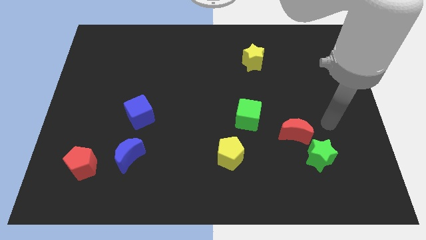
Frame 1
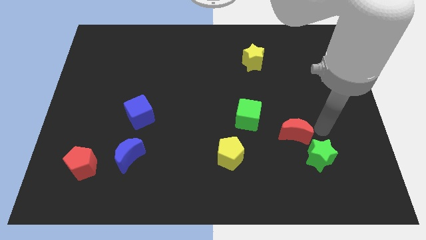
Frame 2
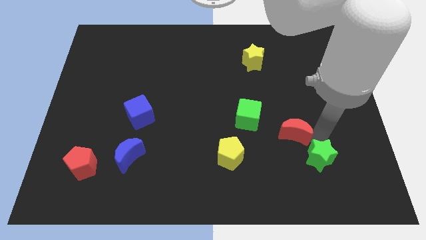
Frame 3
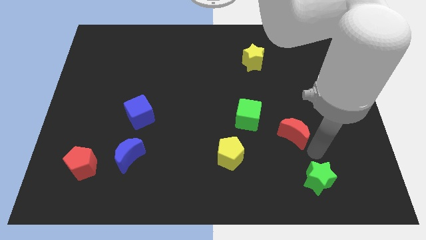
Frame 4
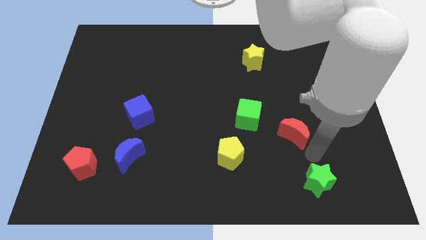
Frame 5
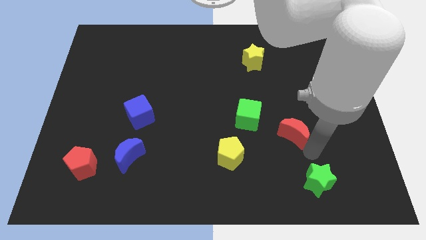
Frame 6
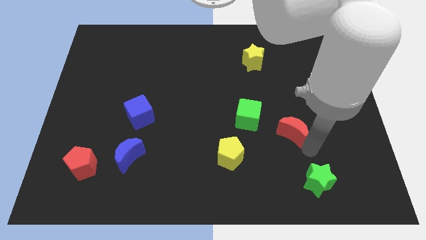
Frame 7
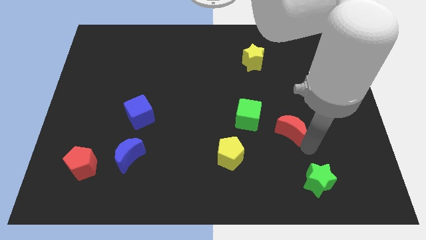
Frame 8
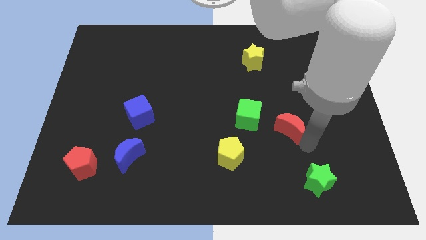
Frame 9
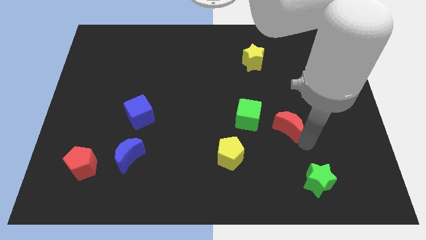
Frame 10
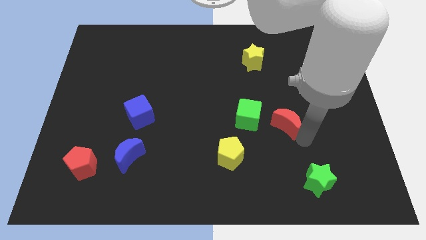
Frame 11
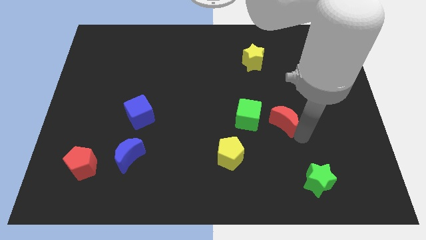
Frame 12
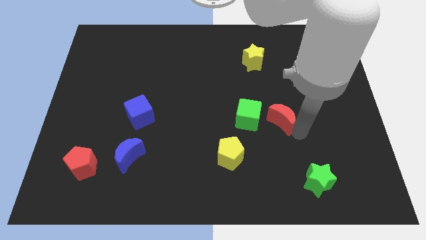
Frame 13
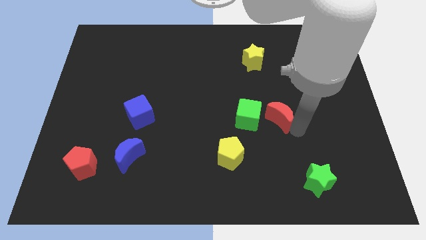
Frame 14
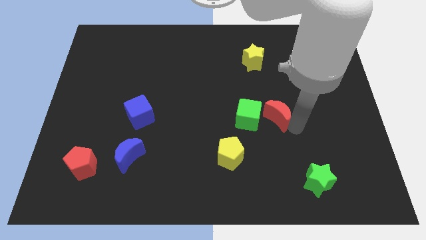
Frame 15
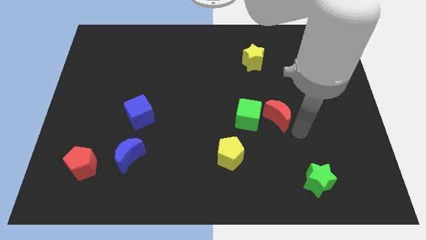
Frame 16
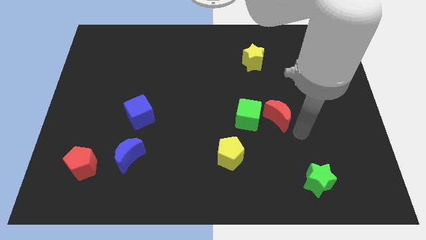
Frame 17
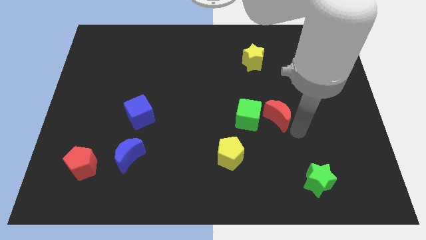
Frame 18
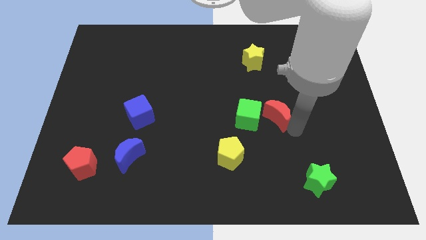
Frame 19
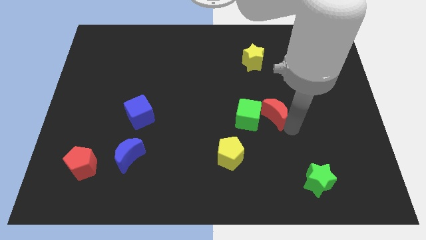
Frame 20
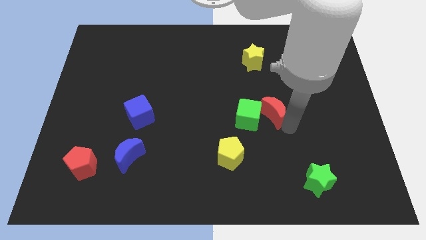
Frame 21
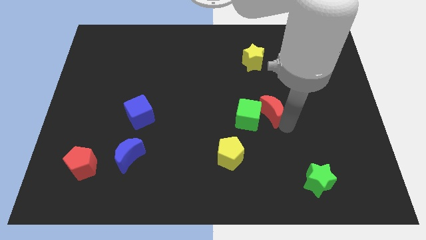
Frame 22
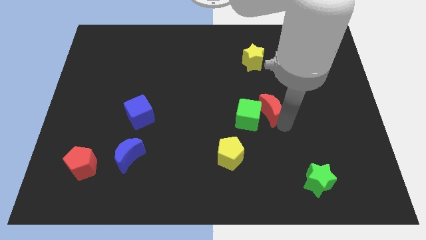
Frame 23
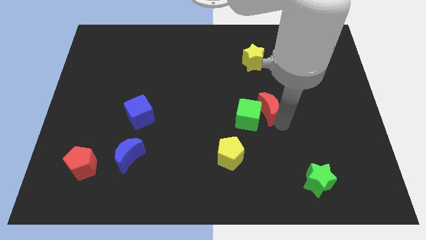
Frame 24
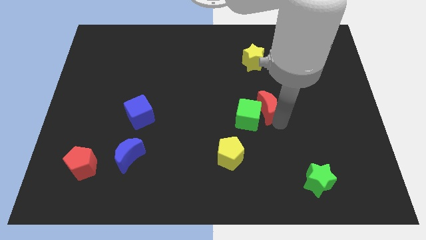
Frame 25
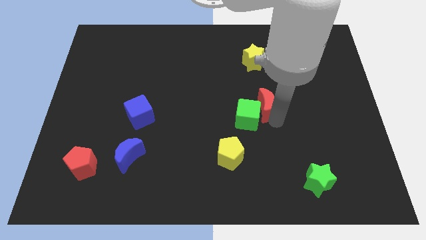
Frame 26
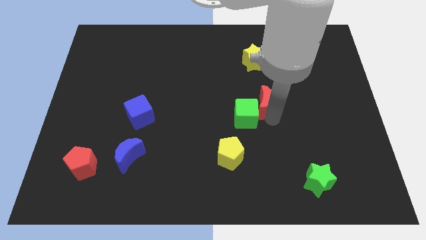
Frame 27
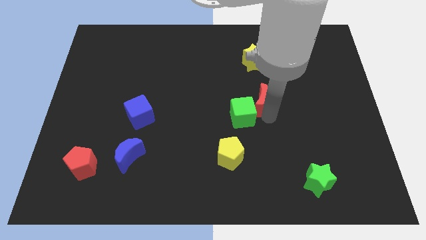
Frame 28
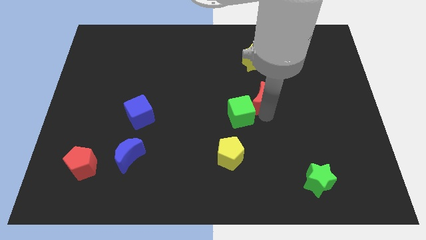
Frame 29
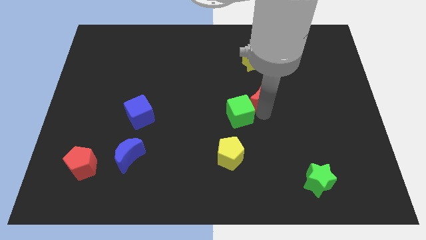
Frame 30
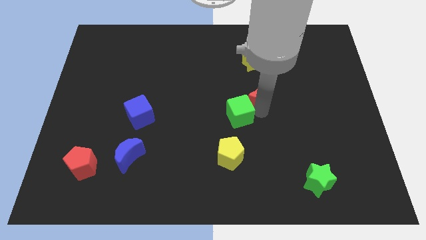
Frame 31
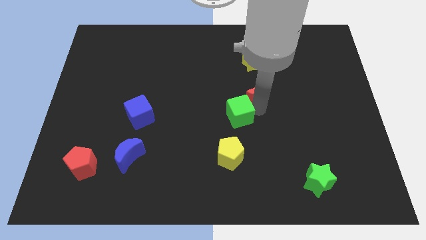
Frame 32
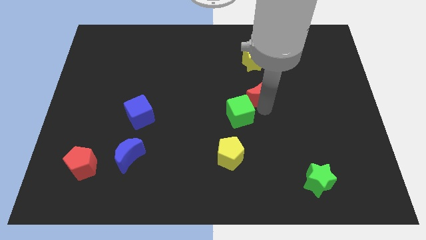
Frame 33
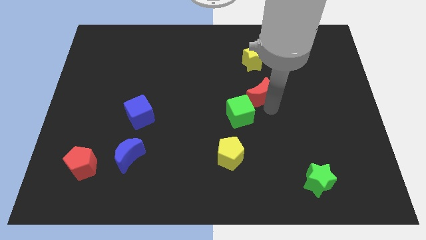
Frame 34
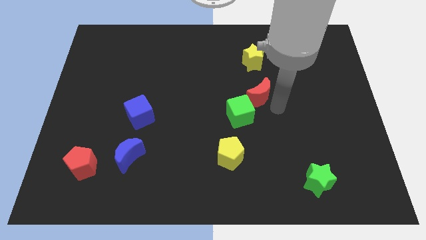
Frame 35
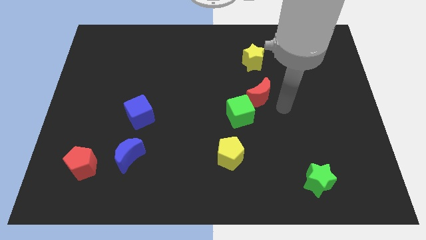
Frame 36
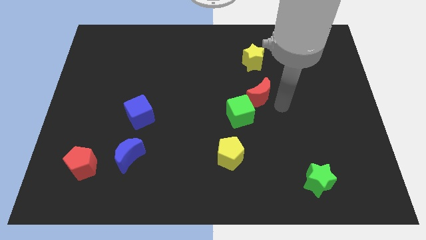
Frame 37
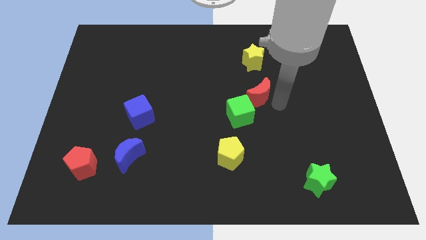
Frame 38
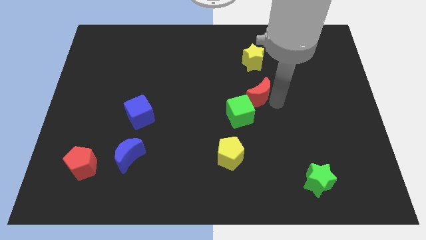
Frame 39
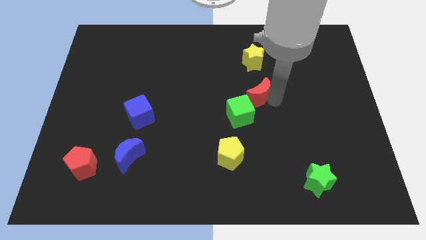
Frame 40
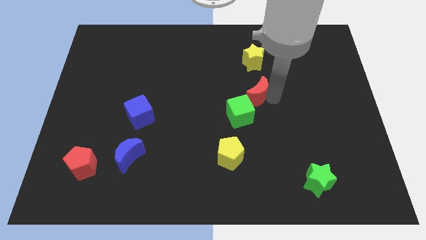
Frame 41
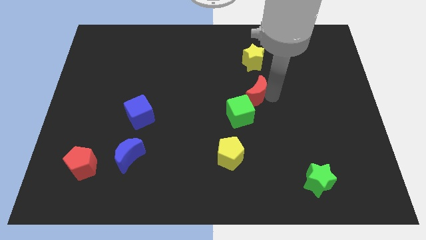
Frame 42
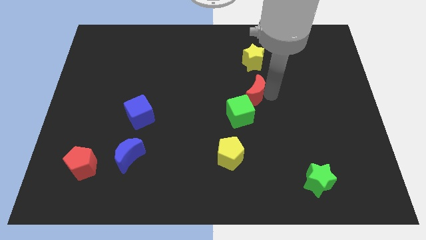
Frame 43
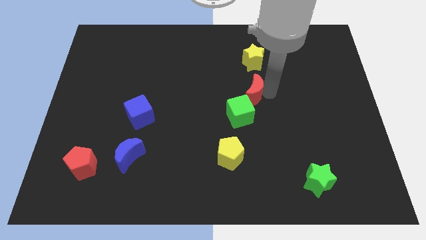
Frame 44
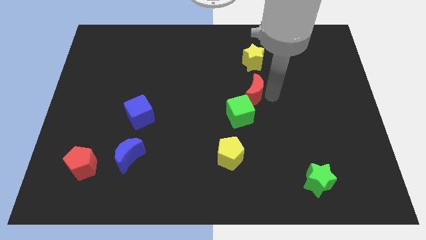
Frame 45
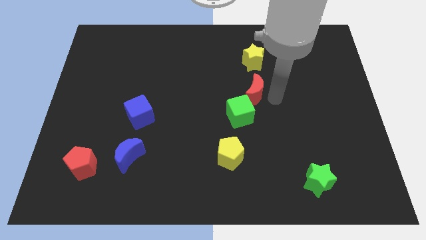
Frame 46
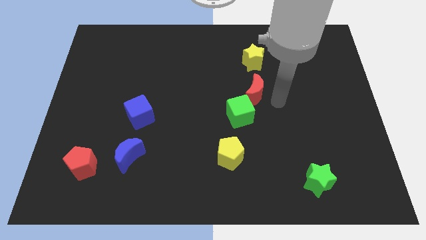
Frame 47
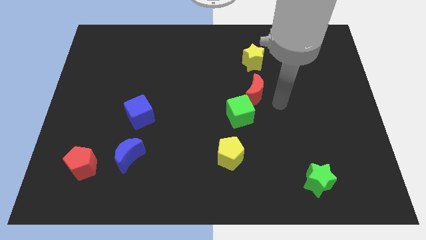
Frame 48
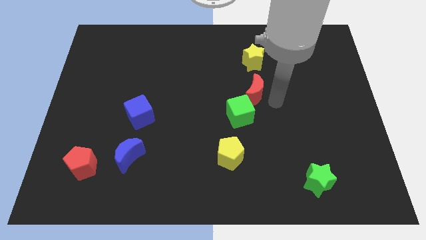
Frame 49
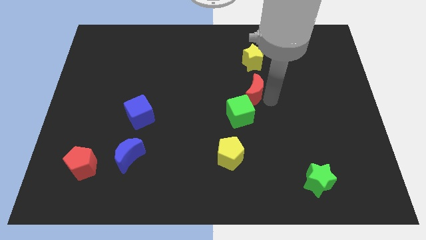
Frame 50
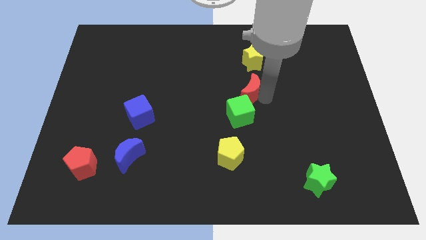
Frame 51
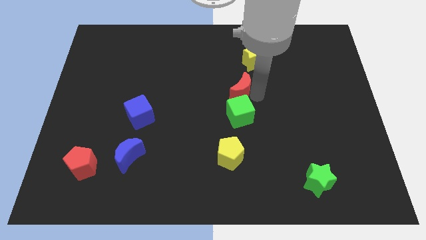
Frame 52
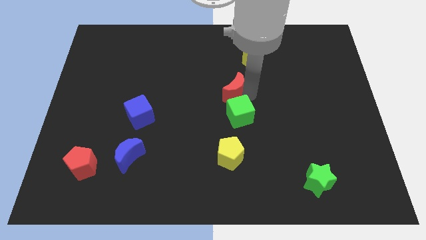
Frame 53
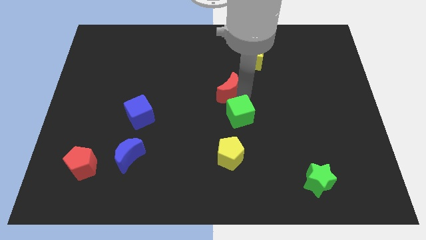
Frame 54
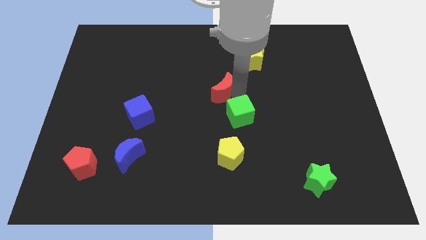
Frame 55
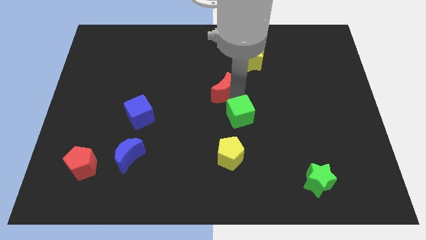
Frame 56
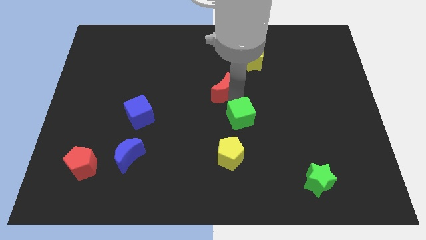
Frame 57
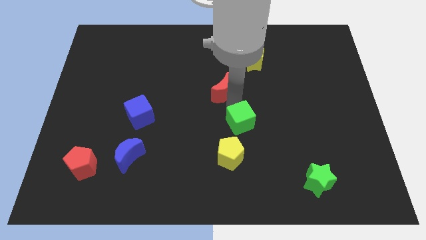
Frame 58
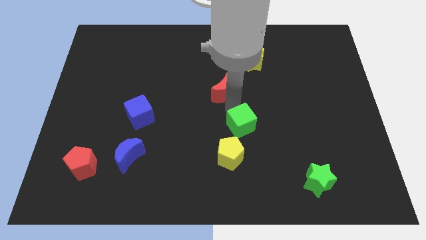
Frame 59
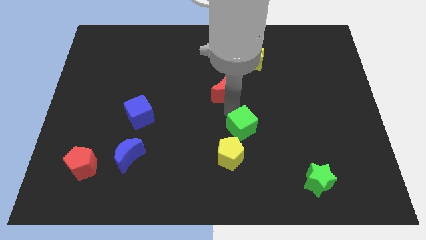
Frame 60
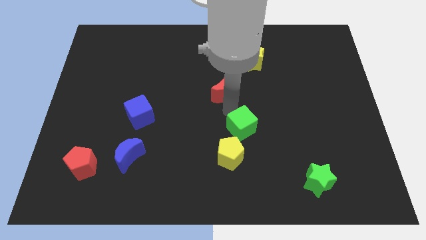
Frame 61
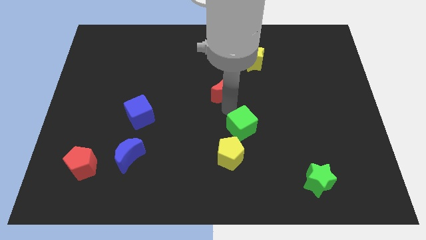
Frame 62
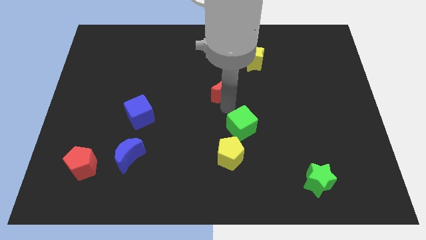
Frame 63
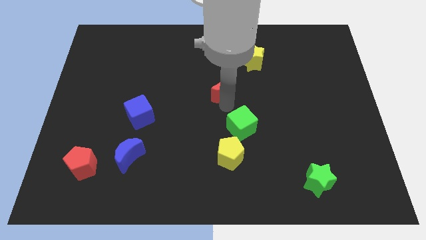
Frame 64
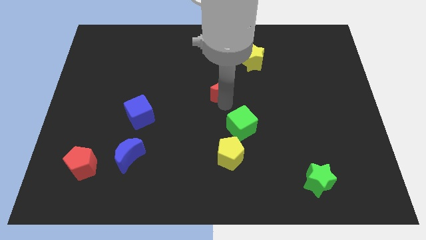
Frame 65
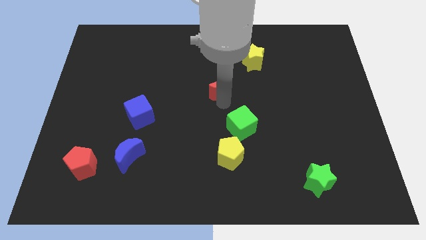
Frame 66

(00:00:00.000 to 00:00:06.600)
move the red moon diagonally upwards and to the left

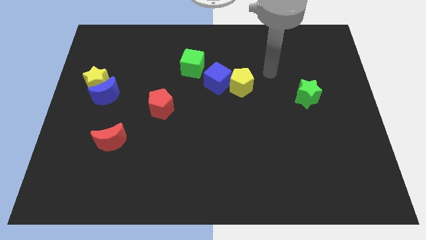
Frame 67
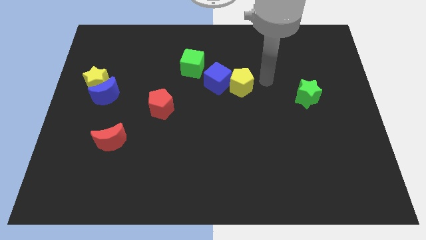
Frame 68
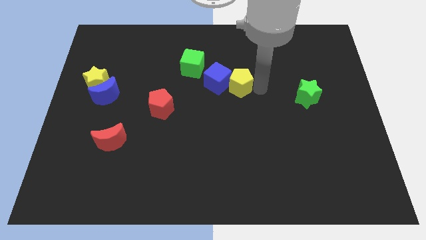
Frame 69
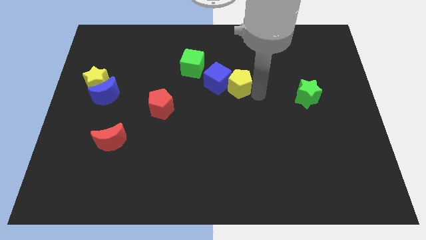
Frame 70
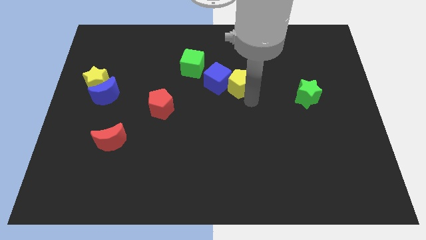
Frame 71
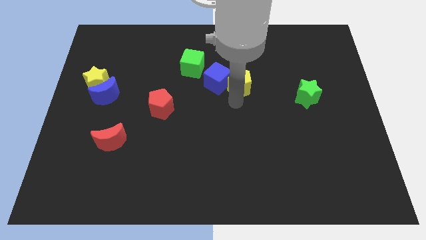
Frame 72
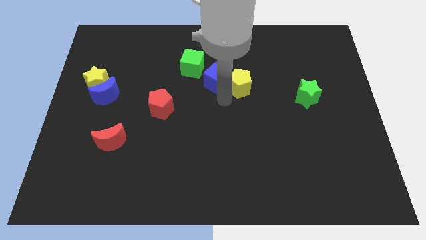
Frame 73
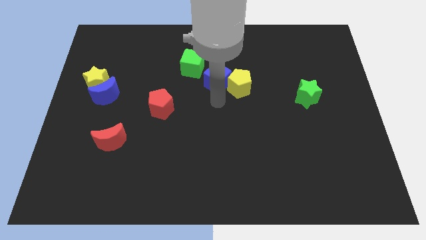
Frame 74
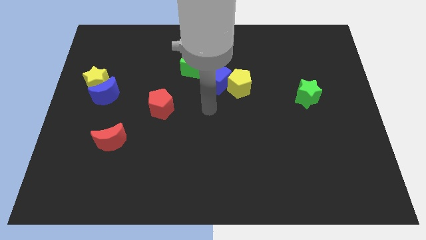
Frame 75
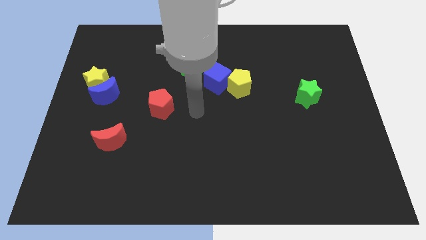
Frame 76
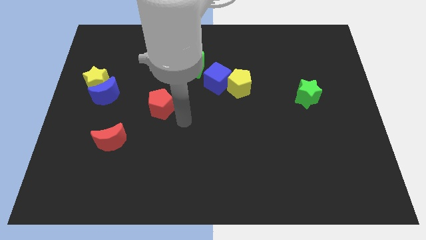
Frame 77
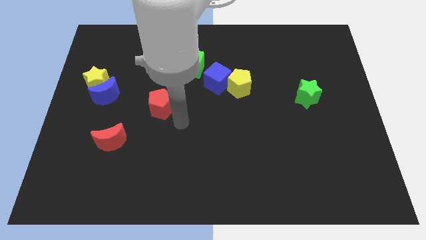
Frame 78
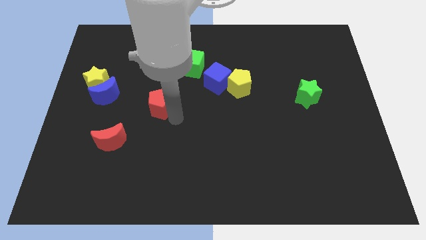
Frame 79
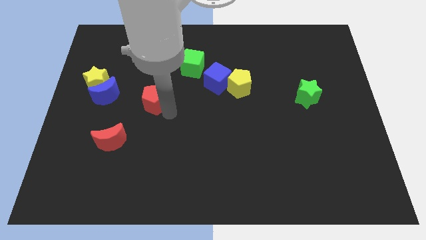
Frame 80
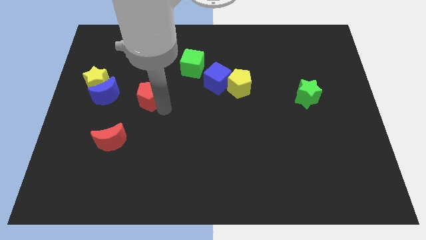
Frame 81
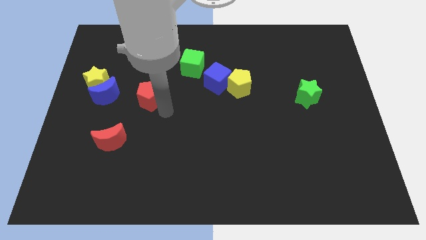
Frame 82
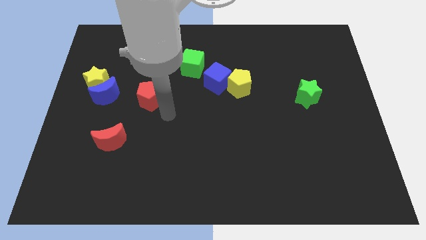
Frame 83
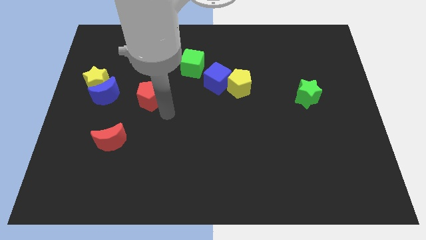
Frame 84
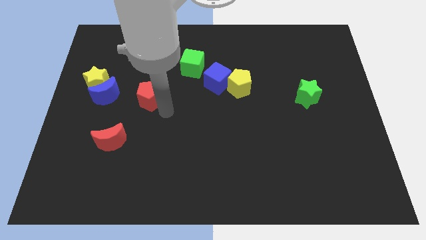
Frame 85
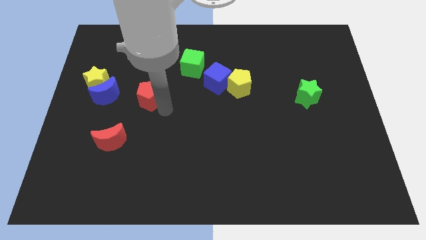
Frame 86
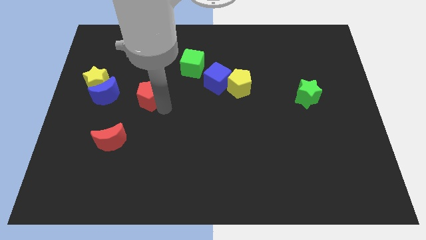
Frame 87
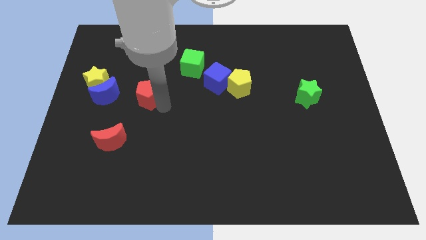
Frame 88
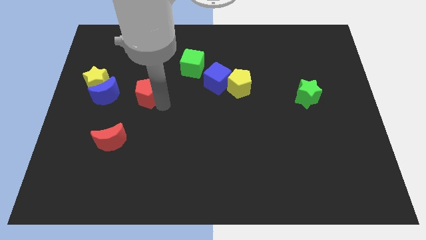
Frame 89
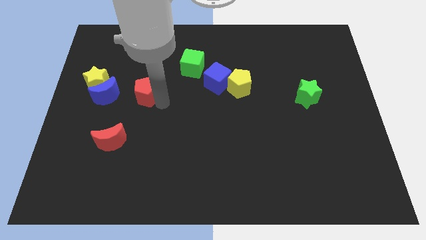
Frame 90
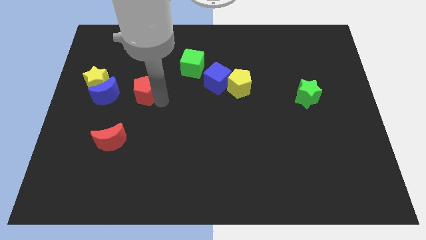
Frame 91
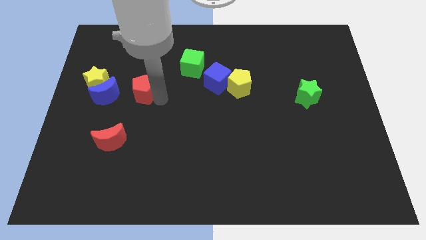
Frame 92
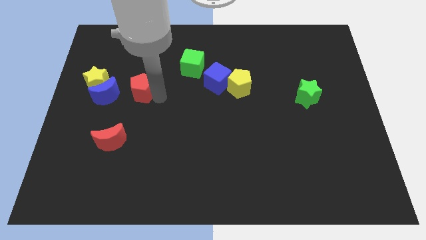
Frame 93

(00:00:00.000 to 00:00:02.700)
push the red pentagon upwards and then to the left a little
